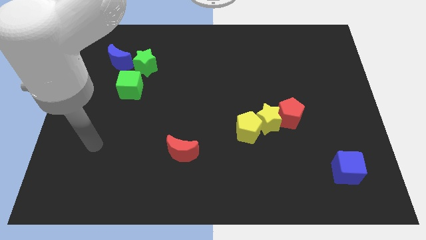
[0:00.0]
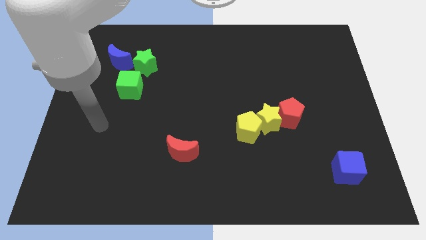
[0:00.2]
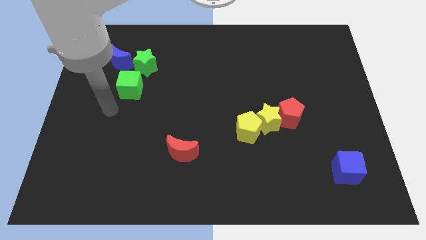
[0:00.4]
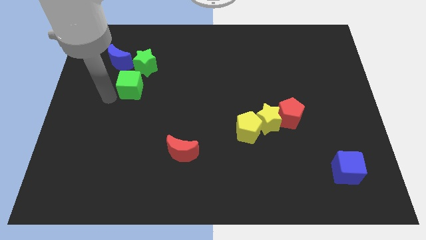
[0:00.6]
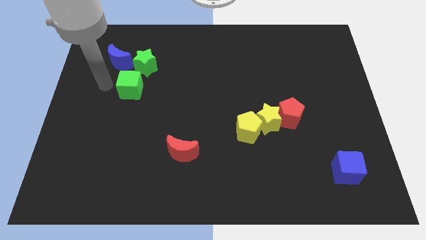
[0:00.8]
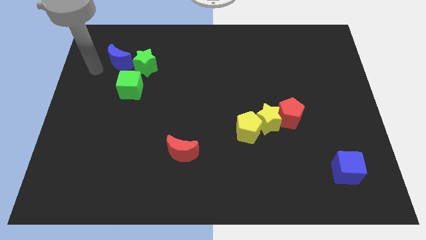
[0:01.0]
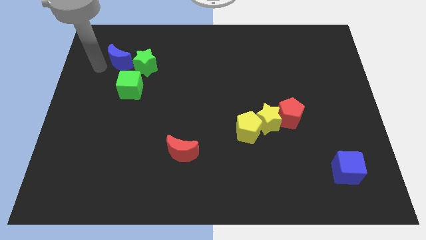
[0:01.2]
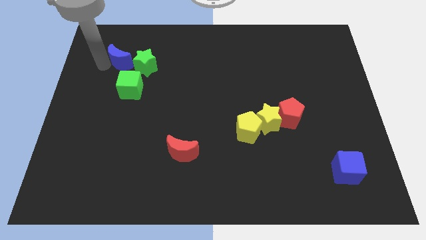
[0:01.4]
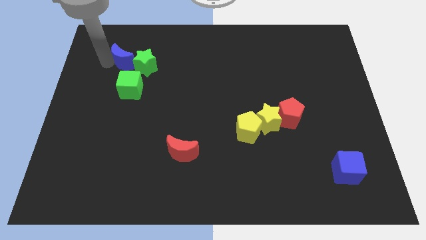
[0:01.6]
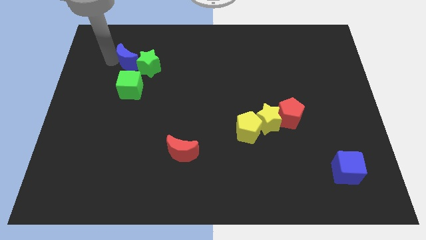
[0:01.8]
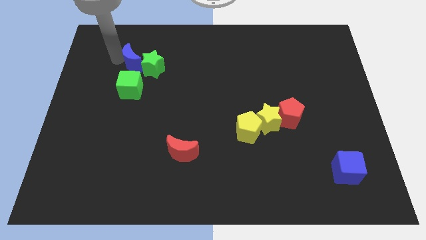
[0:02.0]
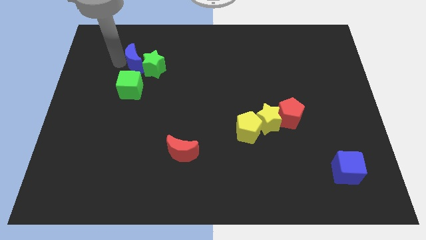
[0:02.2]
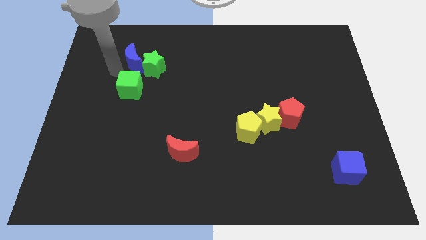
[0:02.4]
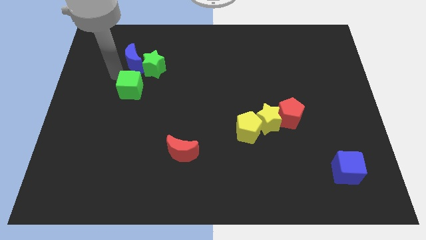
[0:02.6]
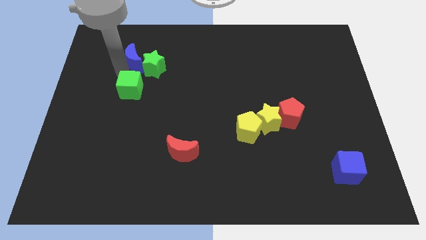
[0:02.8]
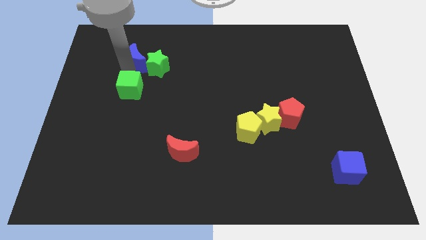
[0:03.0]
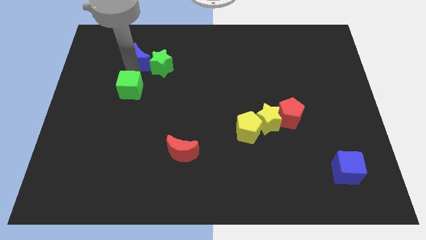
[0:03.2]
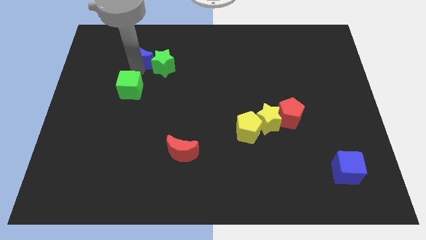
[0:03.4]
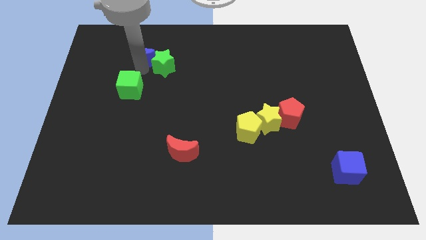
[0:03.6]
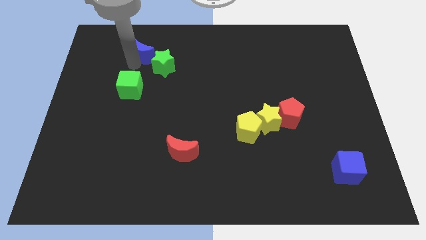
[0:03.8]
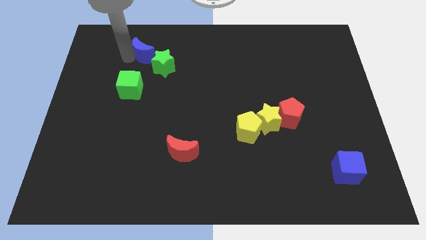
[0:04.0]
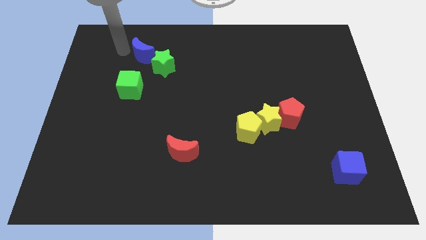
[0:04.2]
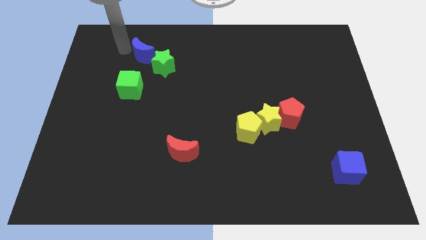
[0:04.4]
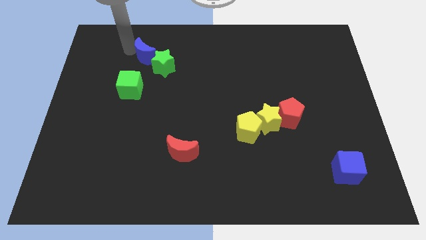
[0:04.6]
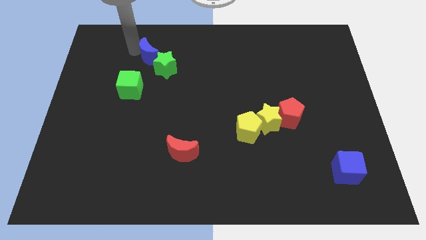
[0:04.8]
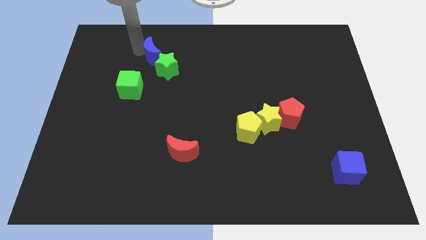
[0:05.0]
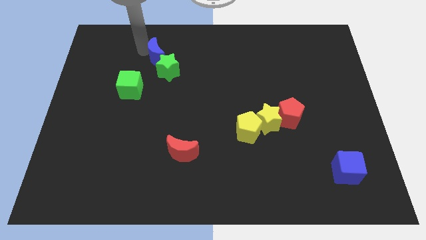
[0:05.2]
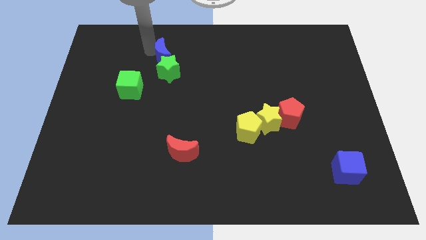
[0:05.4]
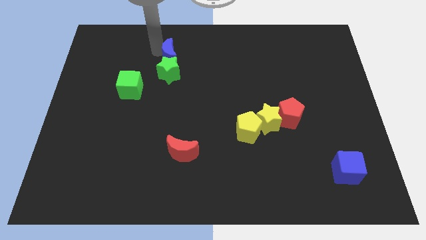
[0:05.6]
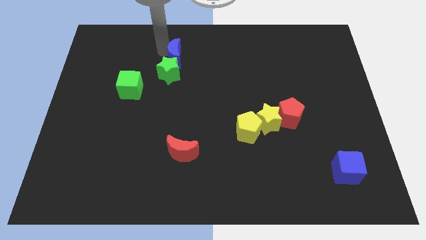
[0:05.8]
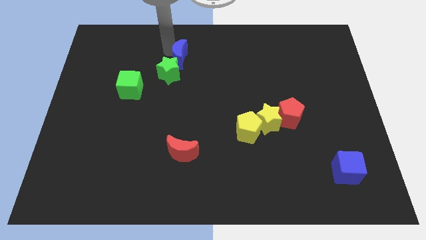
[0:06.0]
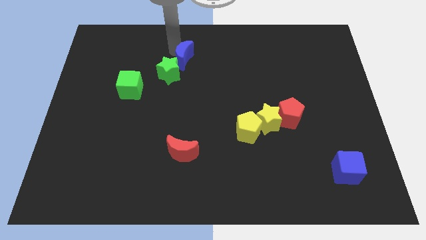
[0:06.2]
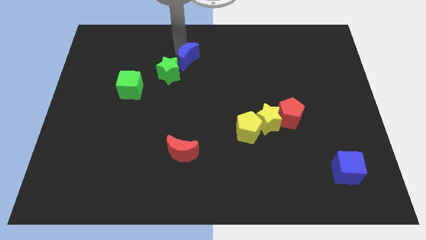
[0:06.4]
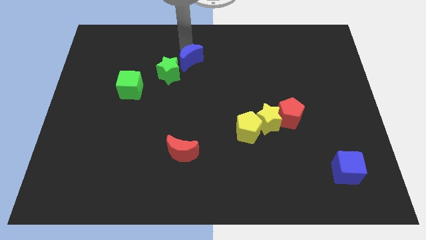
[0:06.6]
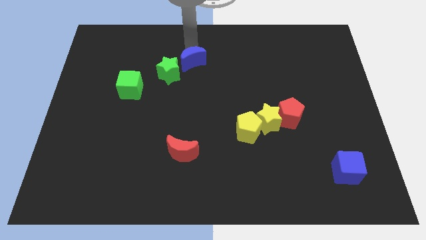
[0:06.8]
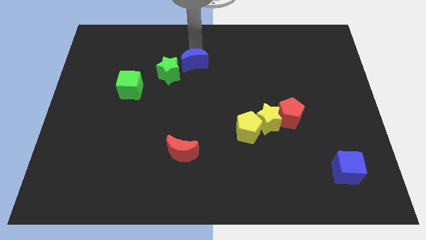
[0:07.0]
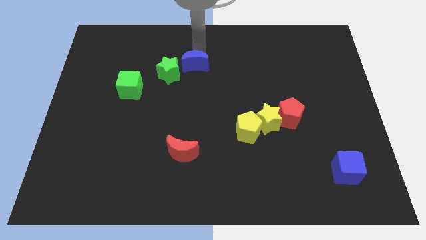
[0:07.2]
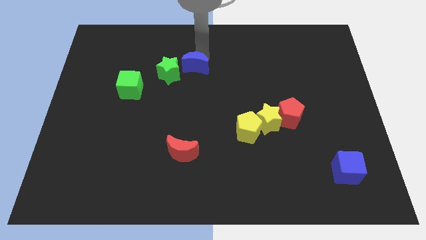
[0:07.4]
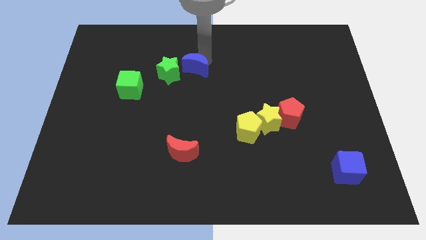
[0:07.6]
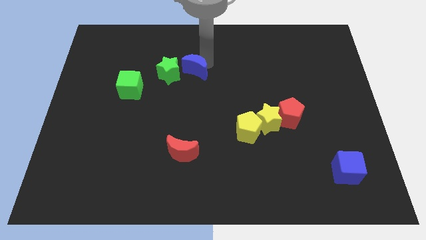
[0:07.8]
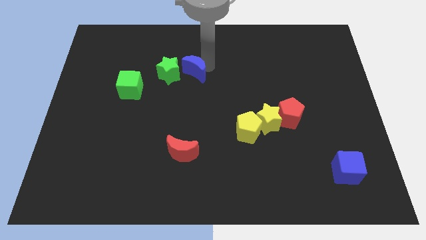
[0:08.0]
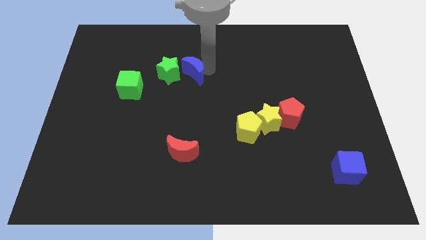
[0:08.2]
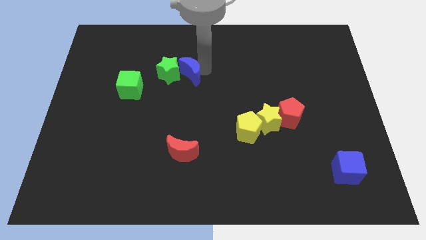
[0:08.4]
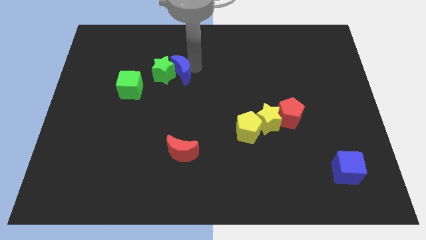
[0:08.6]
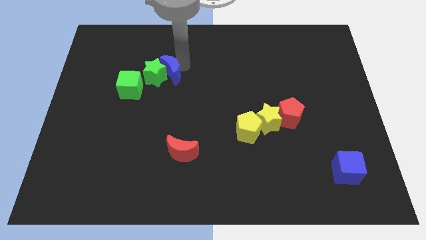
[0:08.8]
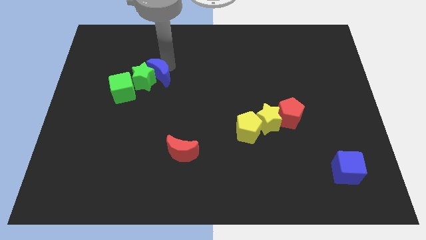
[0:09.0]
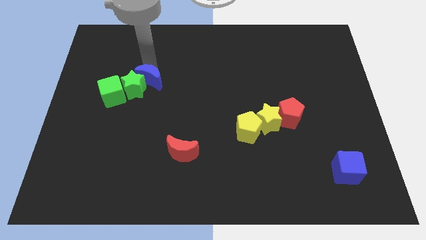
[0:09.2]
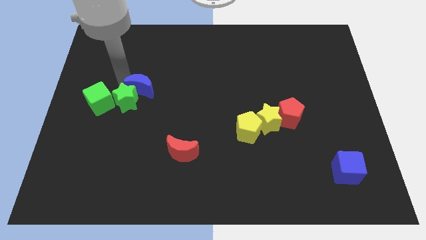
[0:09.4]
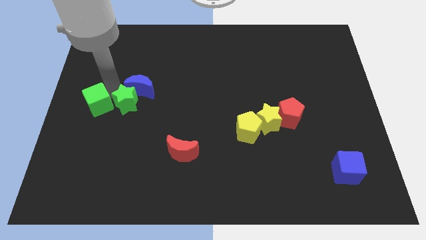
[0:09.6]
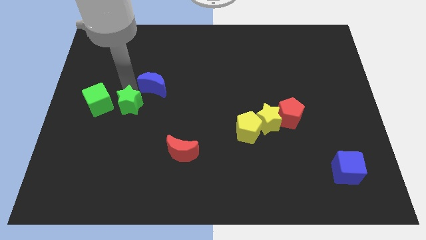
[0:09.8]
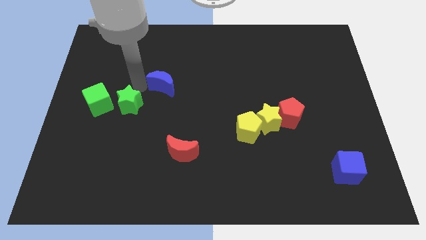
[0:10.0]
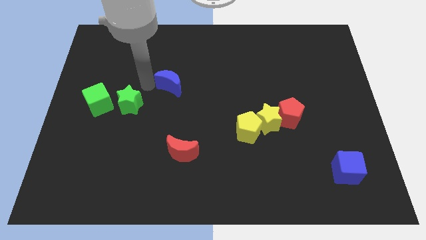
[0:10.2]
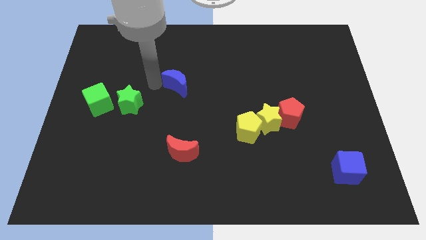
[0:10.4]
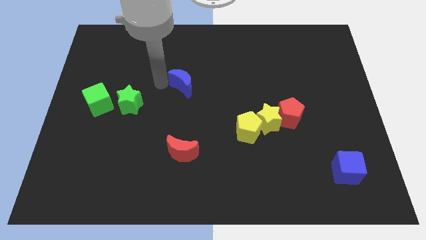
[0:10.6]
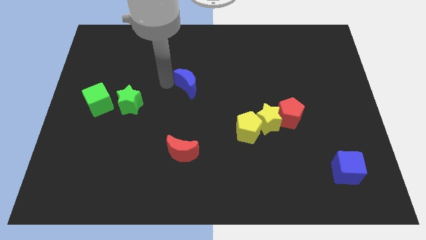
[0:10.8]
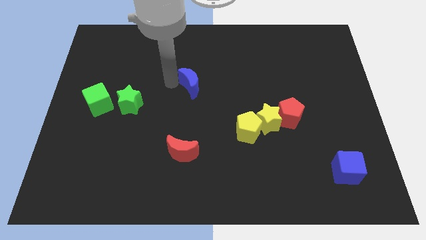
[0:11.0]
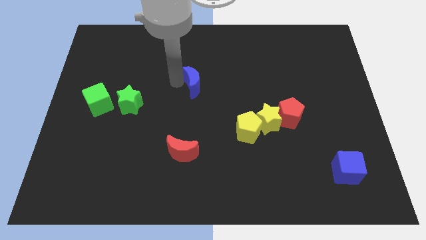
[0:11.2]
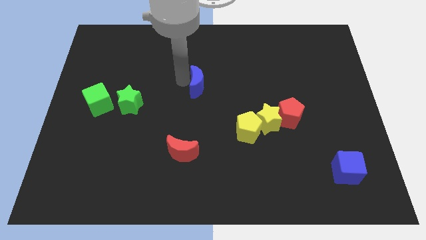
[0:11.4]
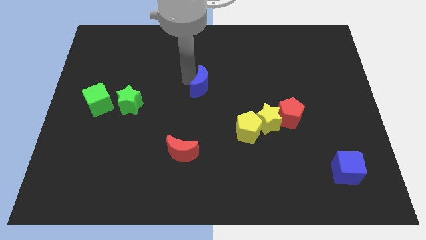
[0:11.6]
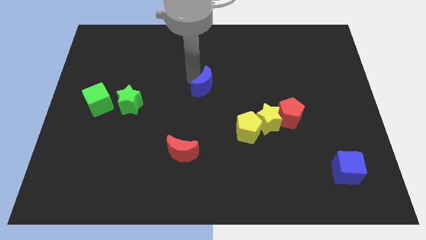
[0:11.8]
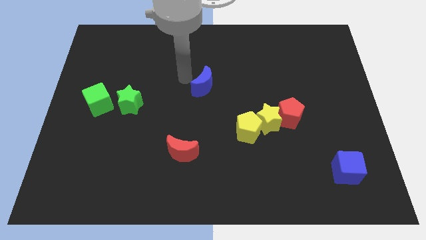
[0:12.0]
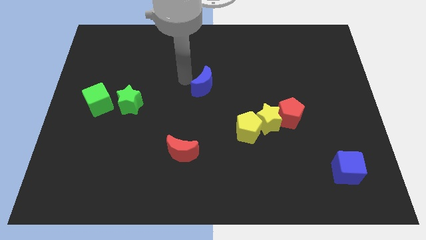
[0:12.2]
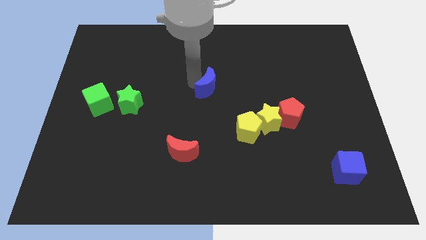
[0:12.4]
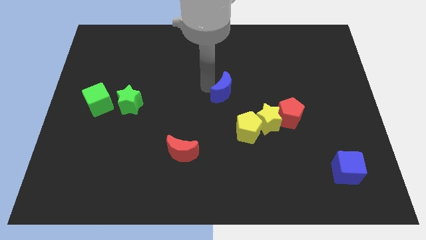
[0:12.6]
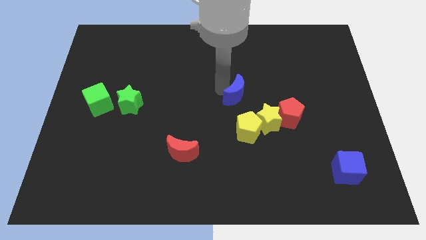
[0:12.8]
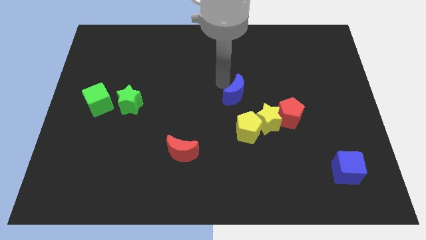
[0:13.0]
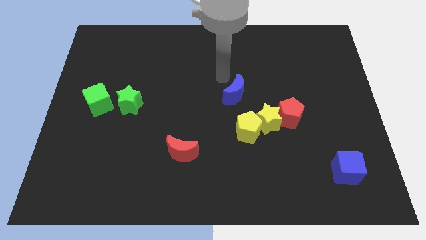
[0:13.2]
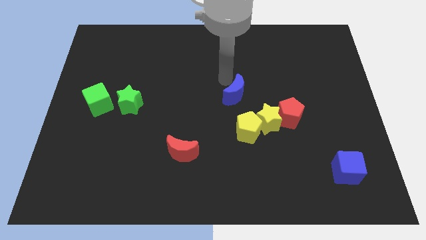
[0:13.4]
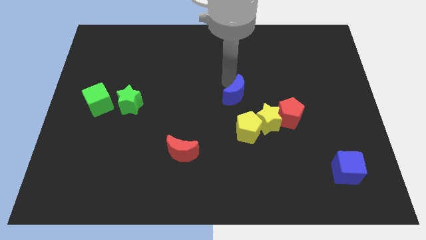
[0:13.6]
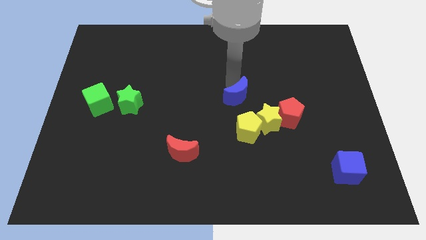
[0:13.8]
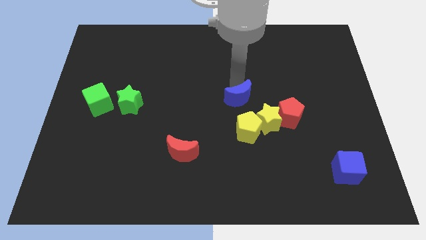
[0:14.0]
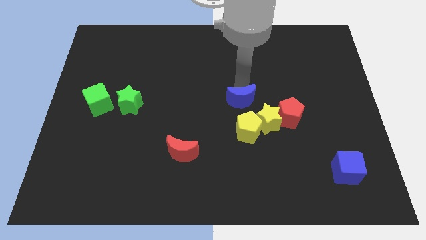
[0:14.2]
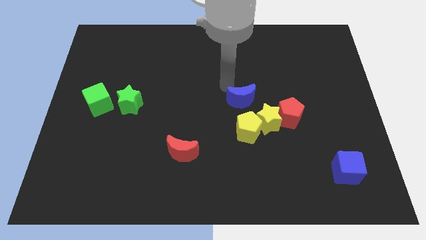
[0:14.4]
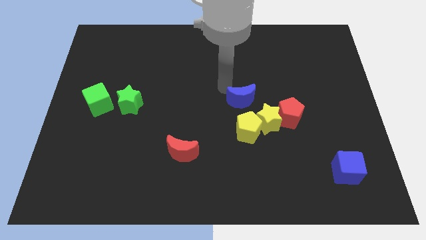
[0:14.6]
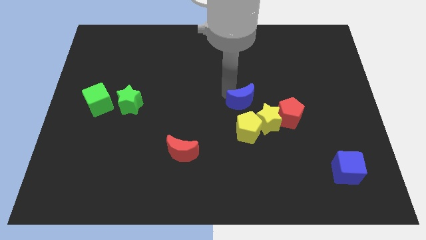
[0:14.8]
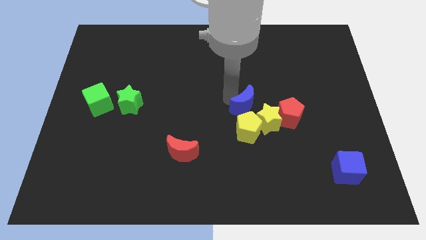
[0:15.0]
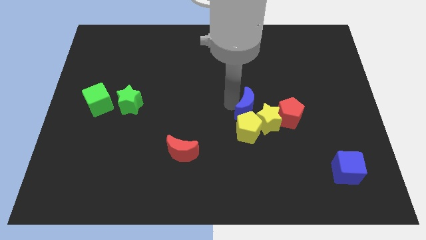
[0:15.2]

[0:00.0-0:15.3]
push the blue moon towards the yellow star

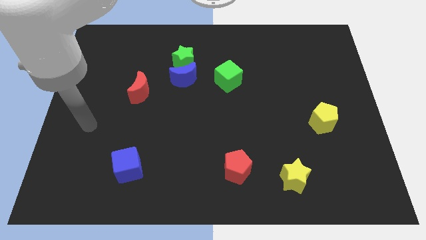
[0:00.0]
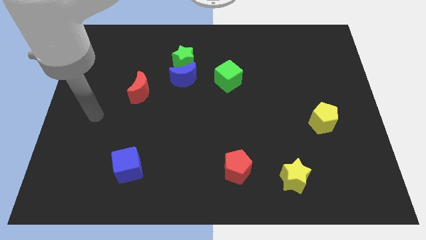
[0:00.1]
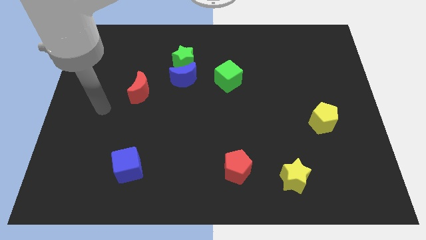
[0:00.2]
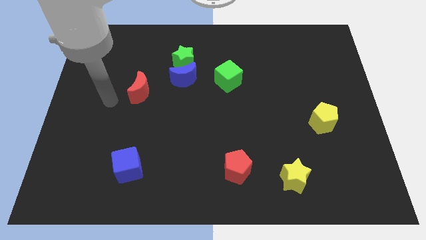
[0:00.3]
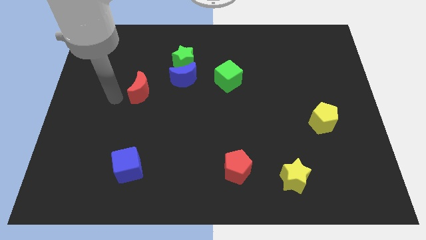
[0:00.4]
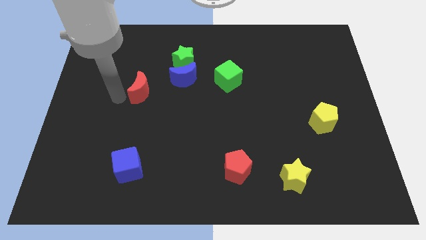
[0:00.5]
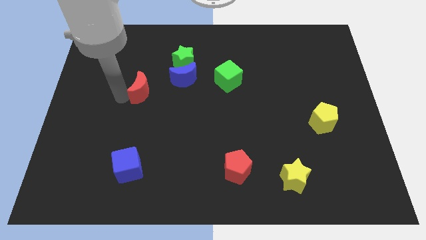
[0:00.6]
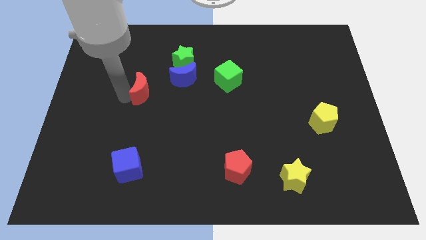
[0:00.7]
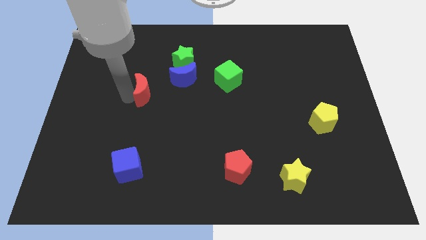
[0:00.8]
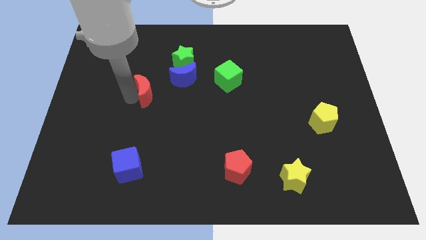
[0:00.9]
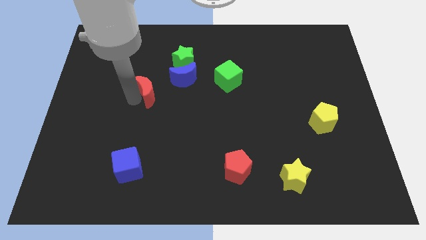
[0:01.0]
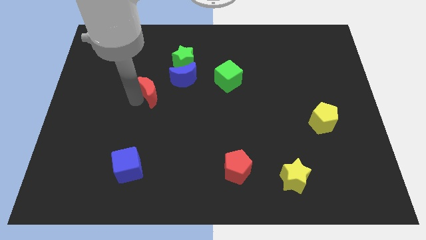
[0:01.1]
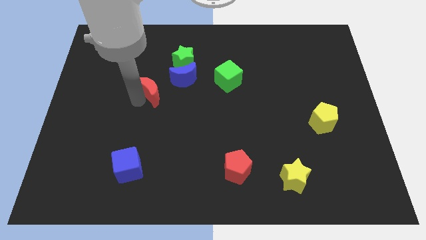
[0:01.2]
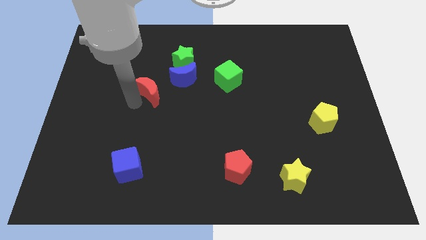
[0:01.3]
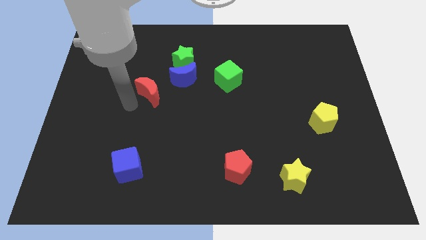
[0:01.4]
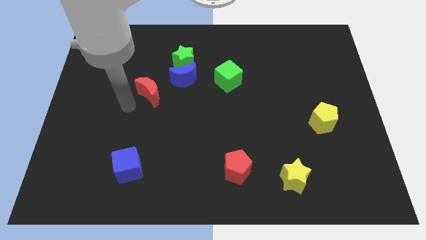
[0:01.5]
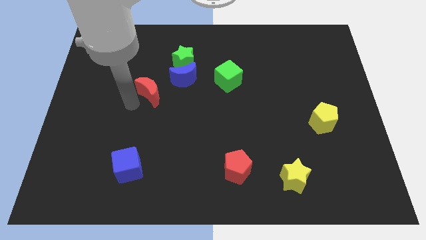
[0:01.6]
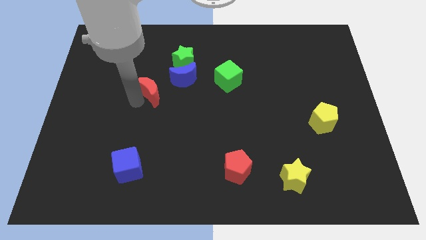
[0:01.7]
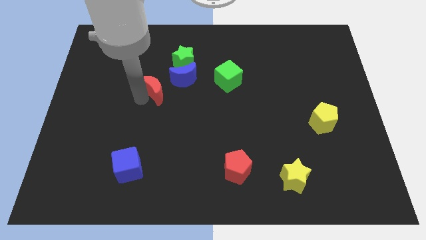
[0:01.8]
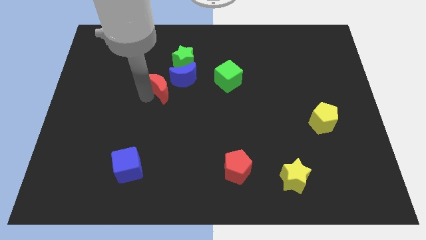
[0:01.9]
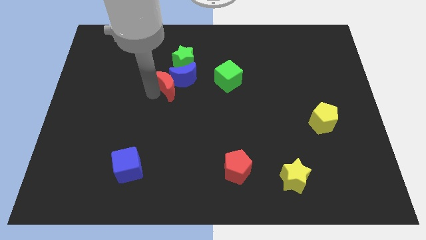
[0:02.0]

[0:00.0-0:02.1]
move the red moon close to the blue moon
